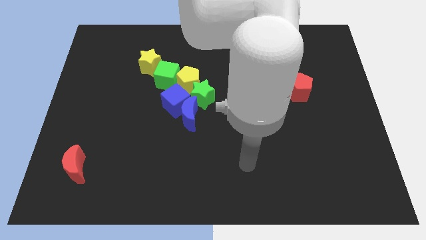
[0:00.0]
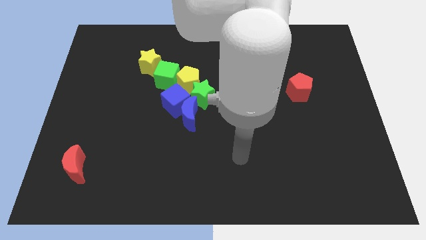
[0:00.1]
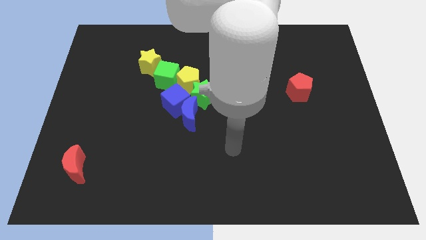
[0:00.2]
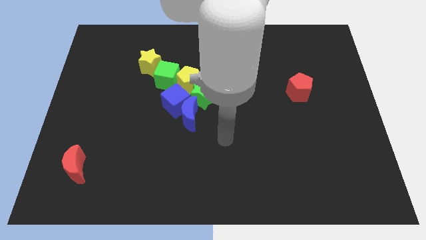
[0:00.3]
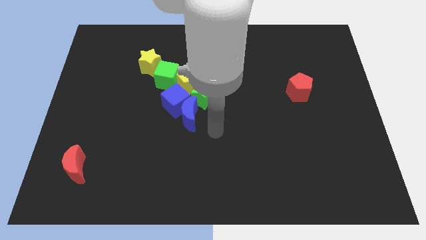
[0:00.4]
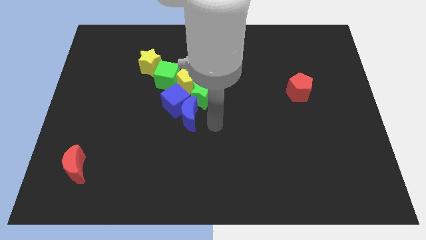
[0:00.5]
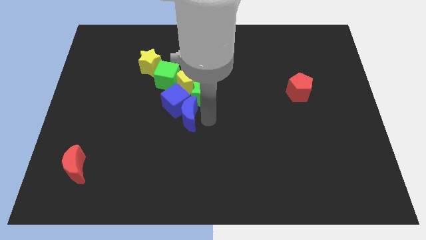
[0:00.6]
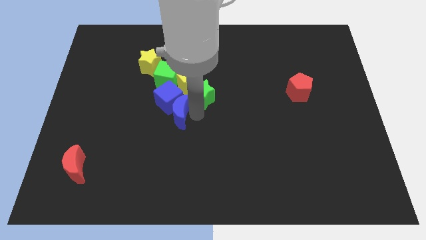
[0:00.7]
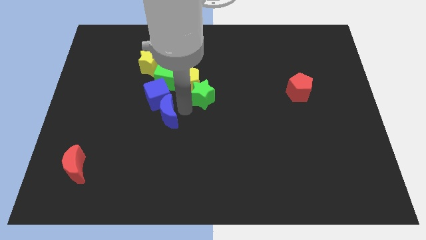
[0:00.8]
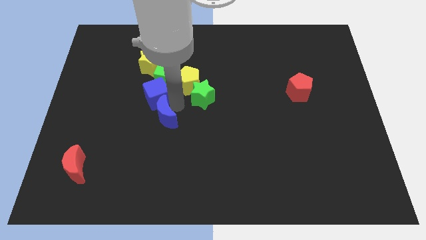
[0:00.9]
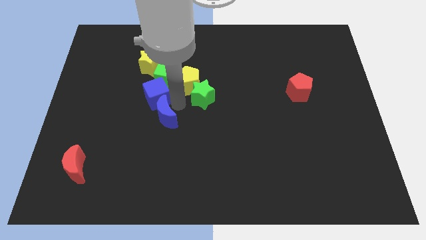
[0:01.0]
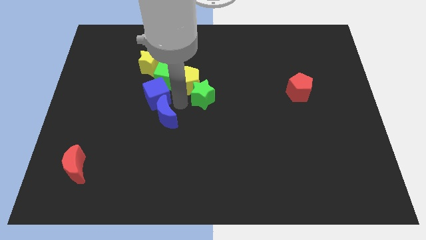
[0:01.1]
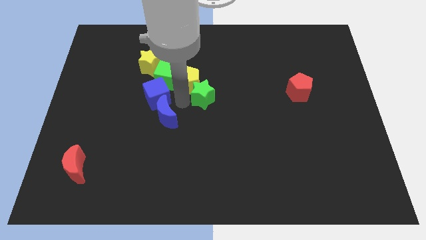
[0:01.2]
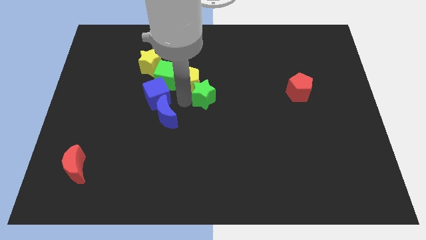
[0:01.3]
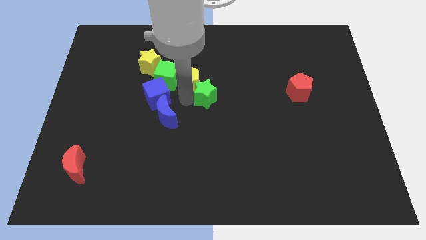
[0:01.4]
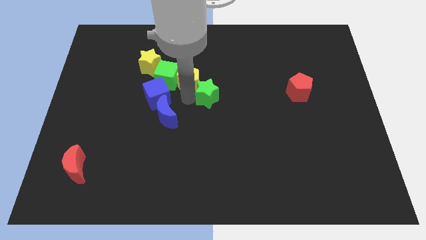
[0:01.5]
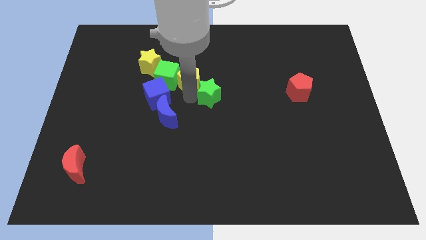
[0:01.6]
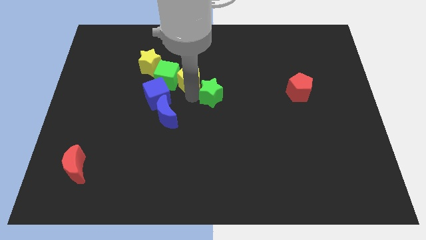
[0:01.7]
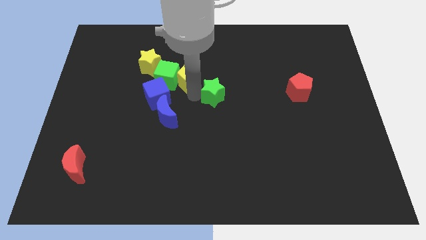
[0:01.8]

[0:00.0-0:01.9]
pull the green star apart from the clump

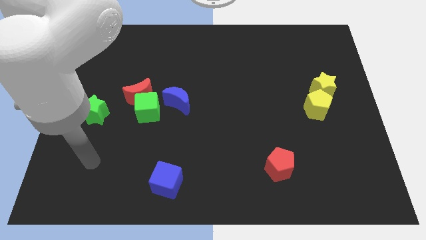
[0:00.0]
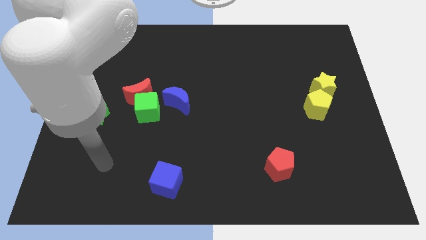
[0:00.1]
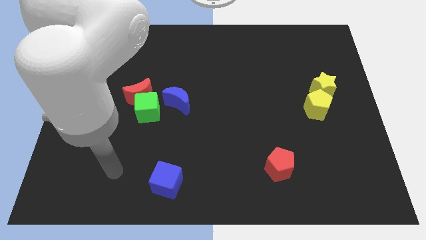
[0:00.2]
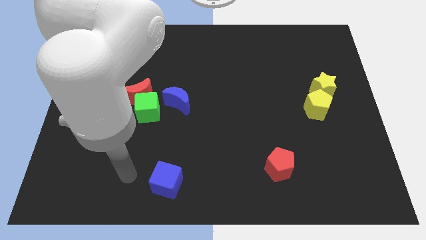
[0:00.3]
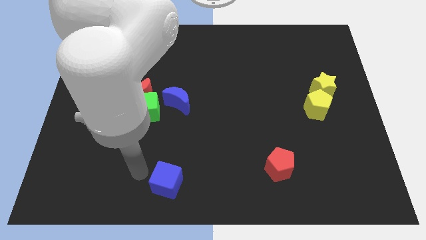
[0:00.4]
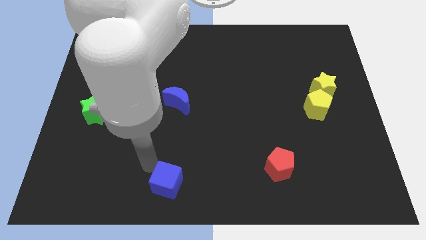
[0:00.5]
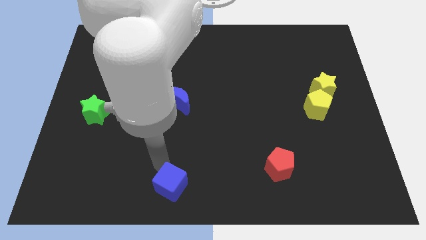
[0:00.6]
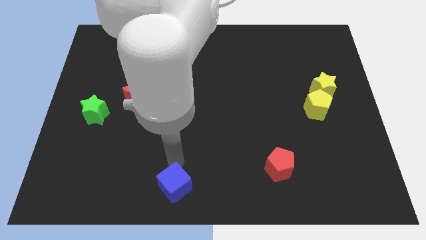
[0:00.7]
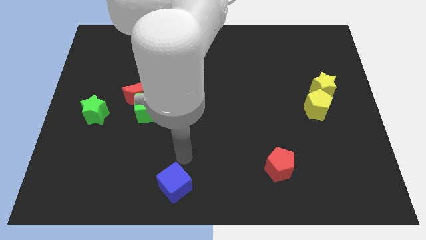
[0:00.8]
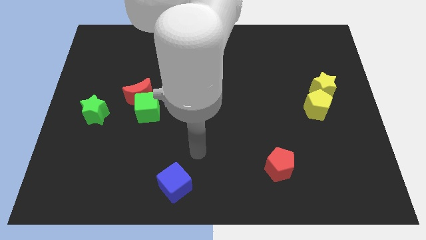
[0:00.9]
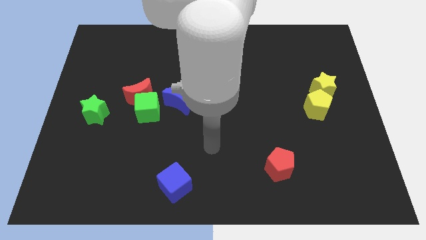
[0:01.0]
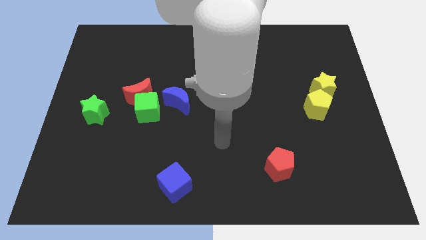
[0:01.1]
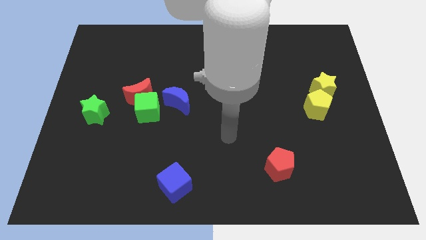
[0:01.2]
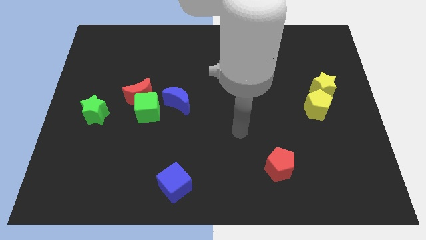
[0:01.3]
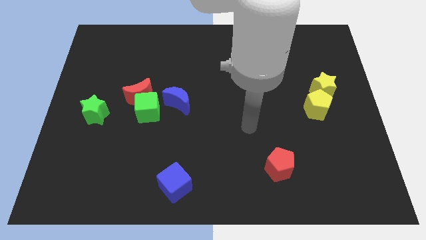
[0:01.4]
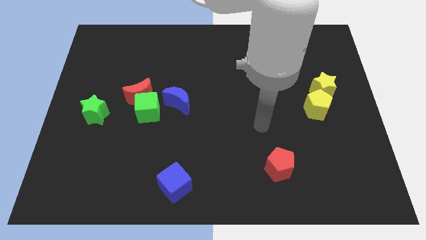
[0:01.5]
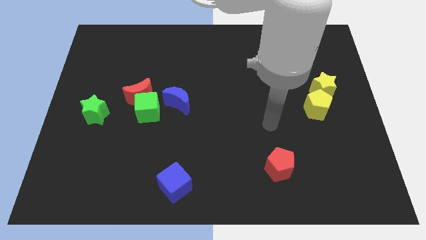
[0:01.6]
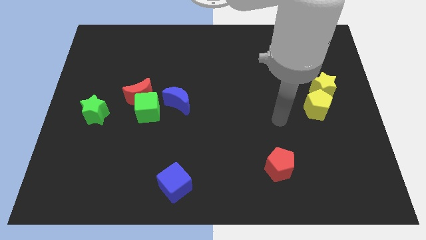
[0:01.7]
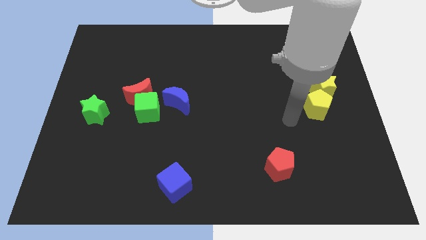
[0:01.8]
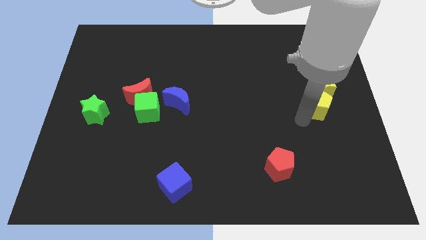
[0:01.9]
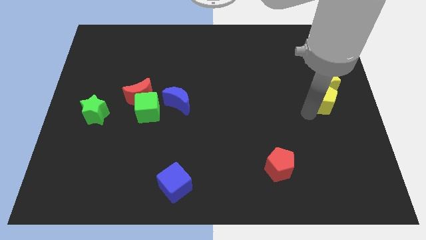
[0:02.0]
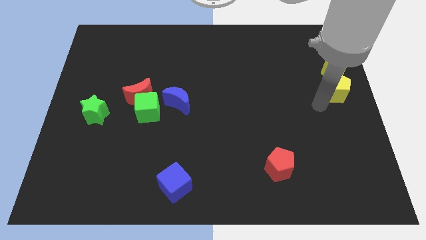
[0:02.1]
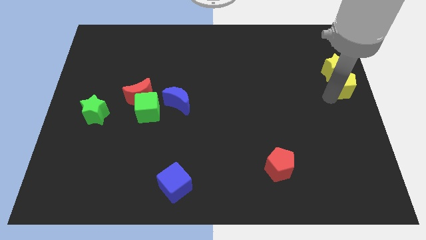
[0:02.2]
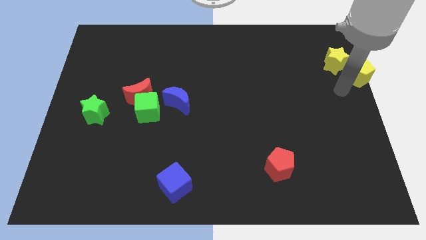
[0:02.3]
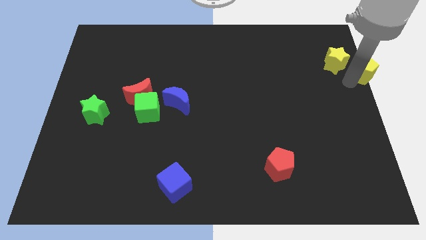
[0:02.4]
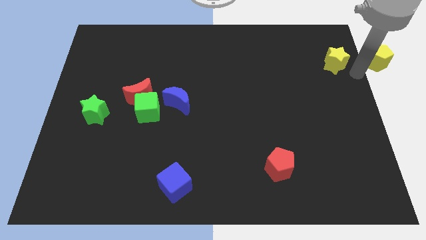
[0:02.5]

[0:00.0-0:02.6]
separate the yellow star from the yellow pentagon

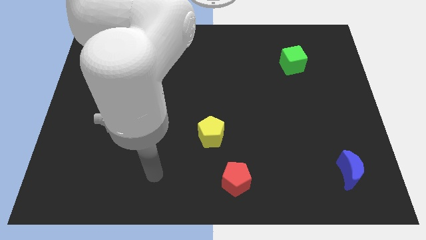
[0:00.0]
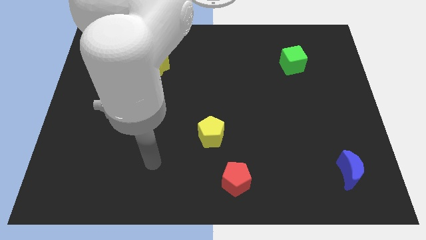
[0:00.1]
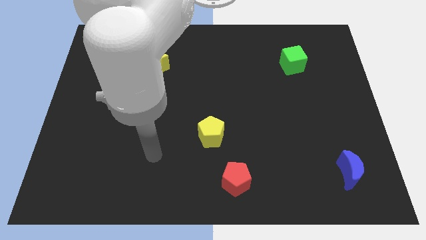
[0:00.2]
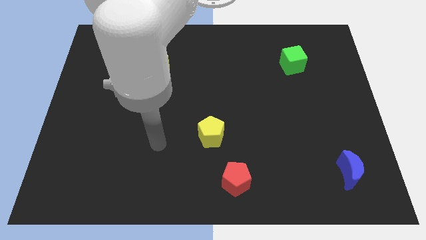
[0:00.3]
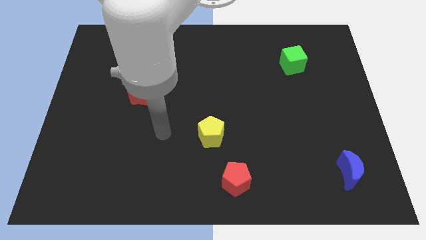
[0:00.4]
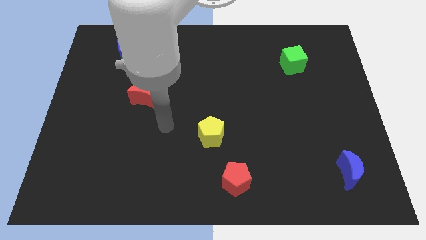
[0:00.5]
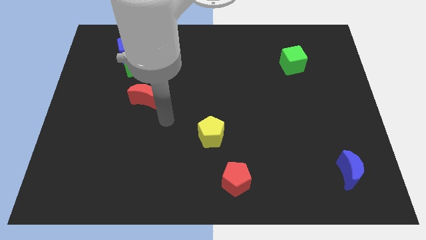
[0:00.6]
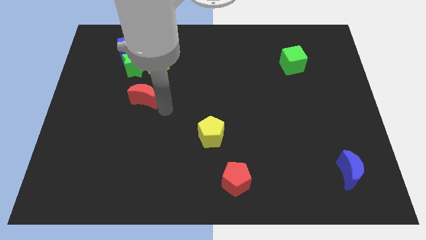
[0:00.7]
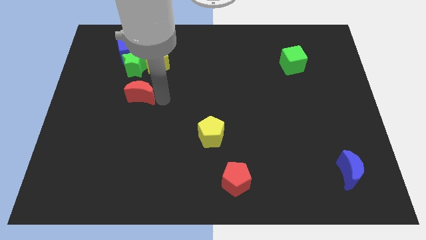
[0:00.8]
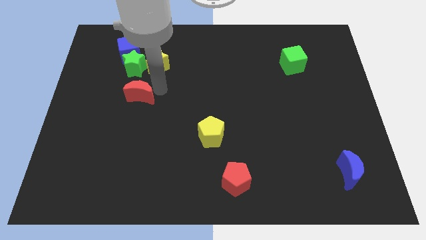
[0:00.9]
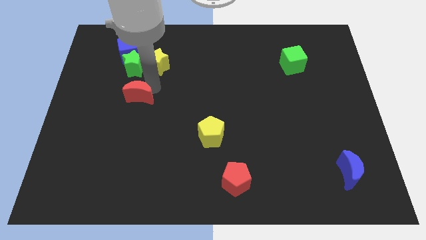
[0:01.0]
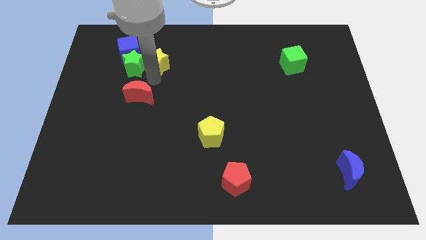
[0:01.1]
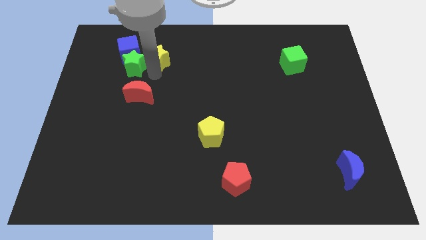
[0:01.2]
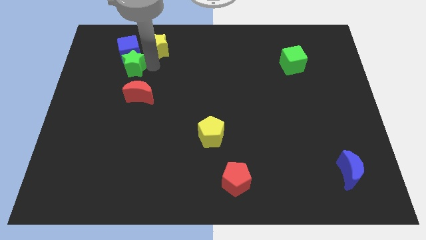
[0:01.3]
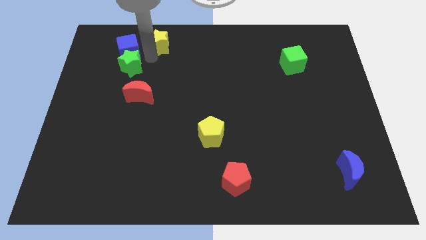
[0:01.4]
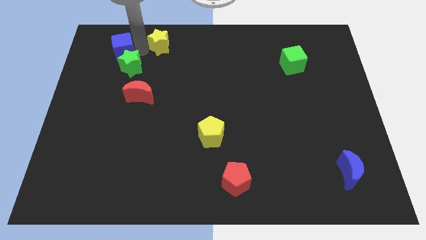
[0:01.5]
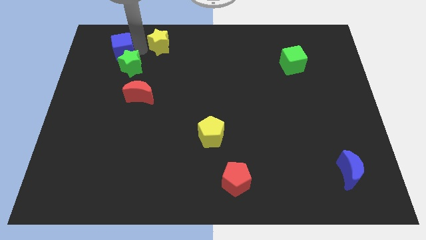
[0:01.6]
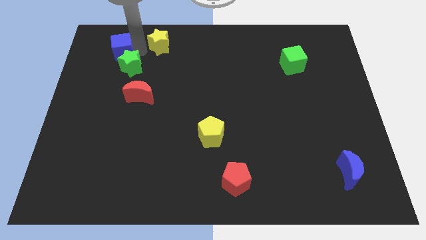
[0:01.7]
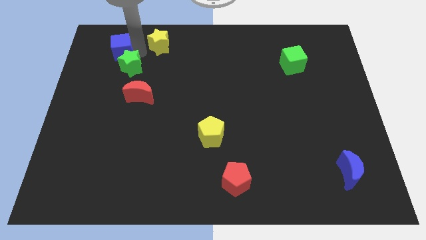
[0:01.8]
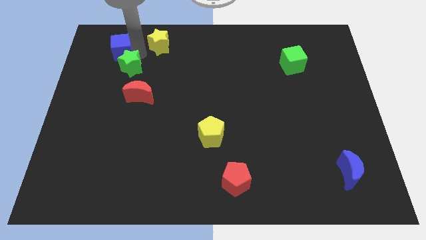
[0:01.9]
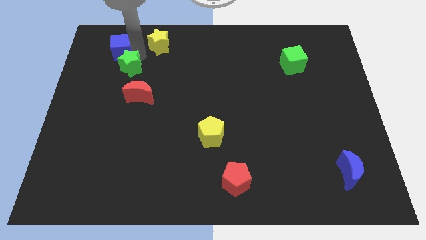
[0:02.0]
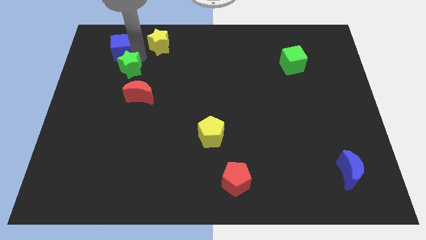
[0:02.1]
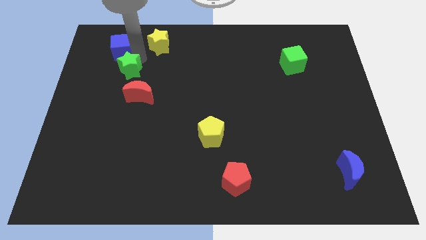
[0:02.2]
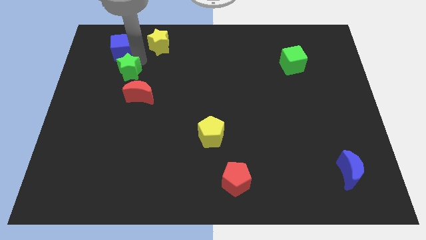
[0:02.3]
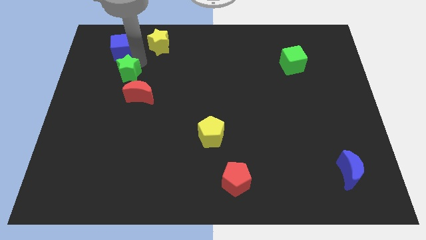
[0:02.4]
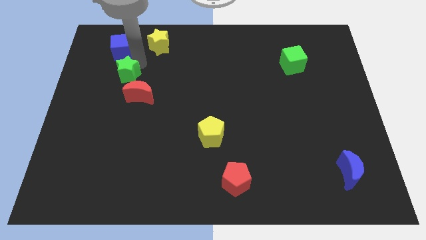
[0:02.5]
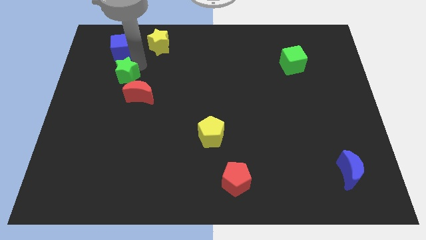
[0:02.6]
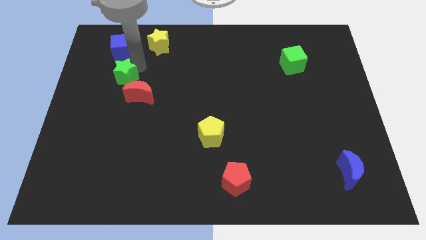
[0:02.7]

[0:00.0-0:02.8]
separate the green star from the blue cube and yellow star

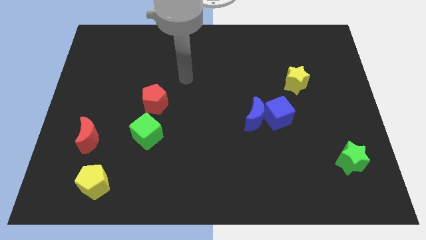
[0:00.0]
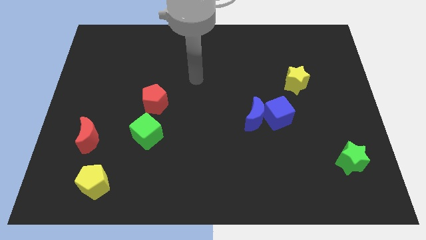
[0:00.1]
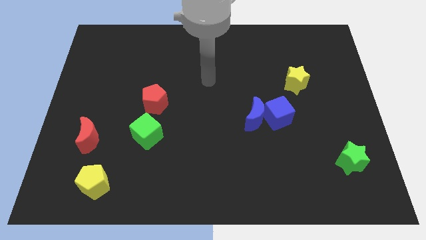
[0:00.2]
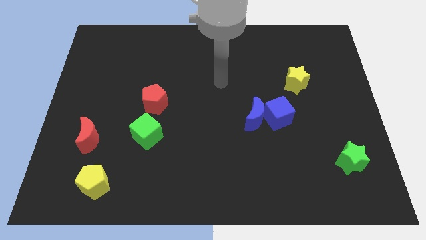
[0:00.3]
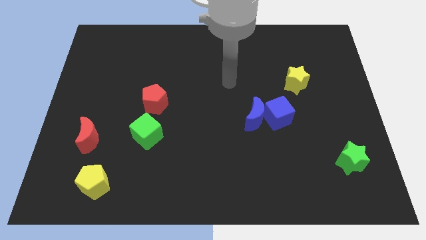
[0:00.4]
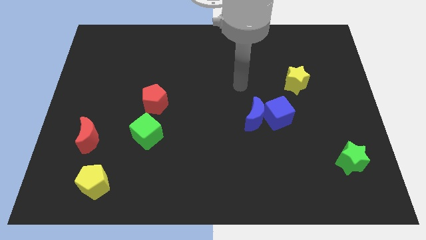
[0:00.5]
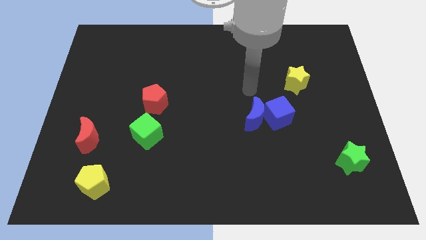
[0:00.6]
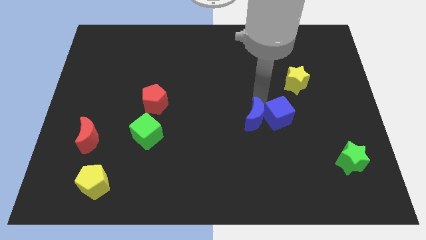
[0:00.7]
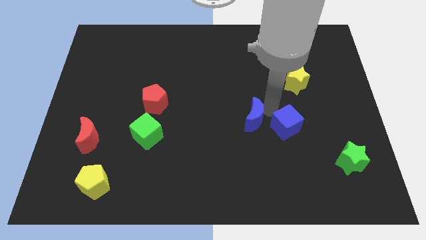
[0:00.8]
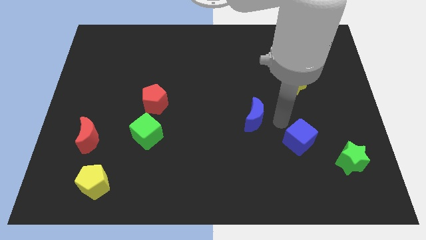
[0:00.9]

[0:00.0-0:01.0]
pull the blue moon apart from the blue cube

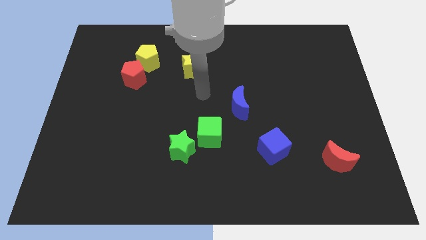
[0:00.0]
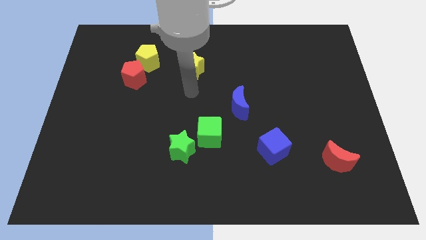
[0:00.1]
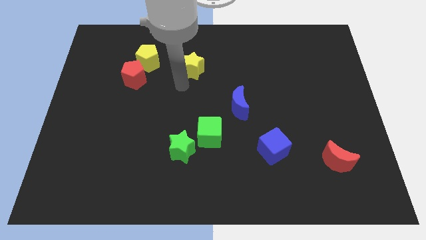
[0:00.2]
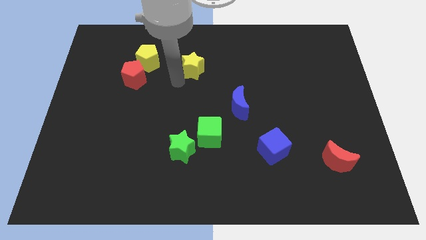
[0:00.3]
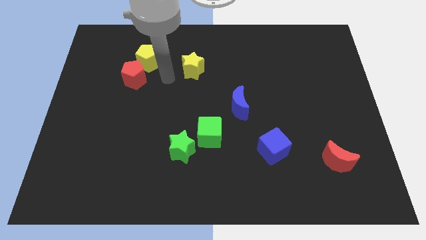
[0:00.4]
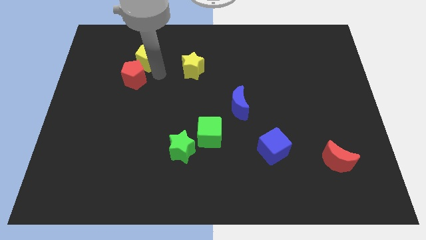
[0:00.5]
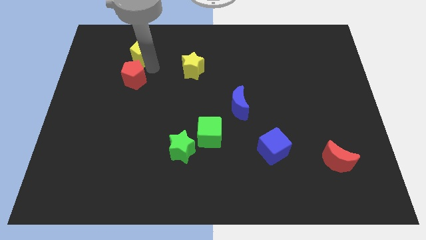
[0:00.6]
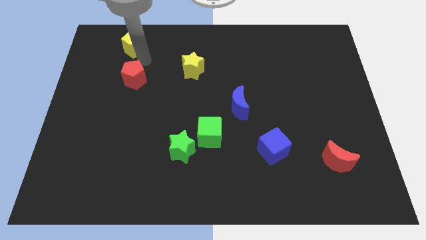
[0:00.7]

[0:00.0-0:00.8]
separate the red pentagon from the yellow pentagon

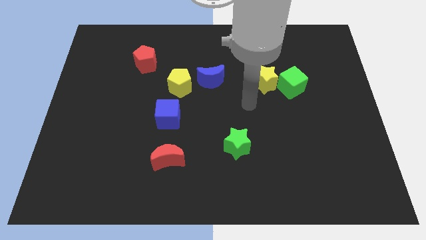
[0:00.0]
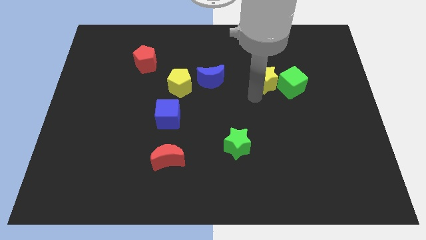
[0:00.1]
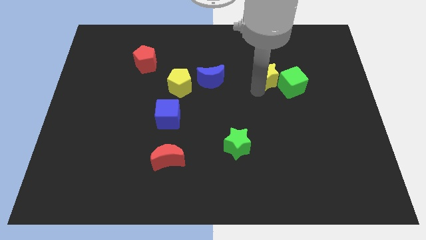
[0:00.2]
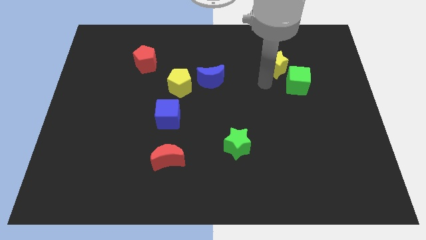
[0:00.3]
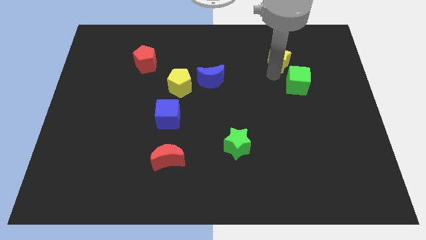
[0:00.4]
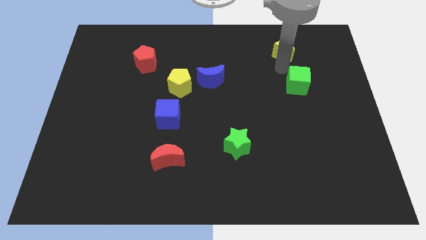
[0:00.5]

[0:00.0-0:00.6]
separate the green cube from the yellow star
